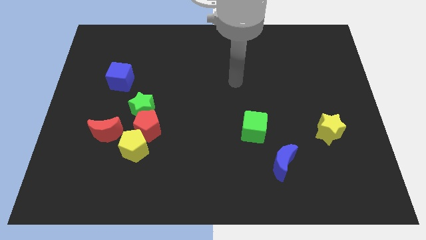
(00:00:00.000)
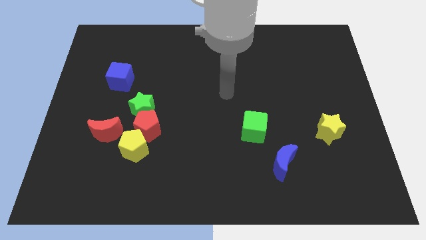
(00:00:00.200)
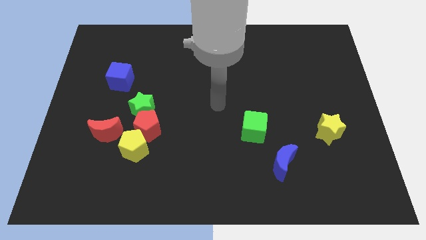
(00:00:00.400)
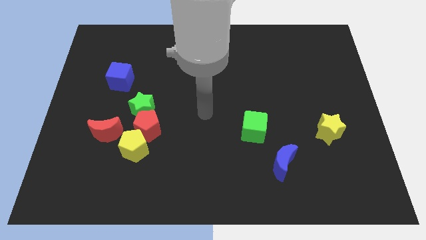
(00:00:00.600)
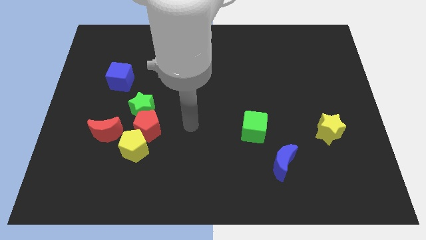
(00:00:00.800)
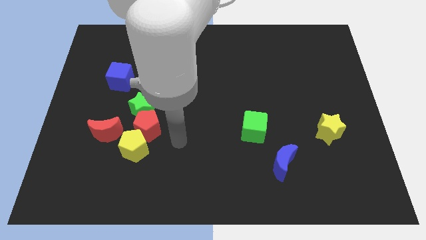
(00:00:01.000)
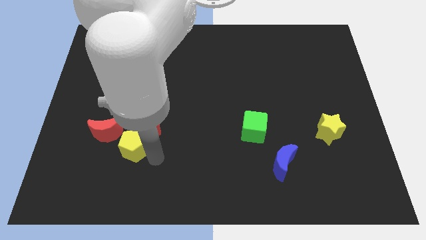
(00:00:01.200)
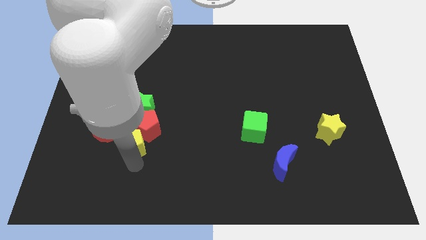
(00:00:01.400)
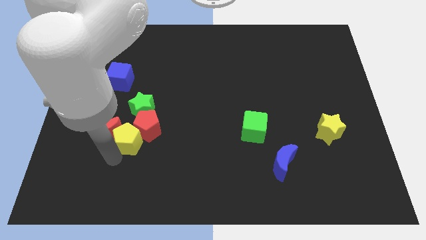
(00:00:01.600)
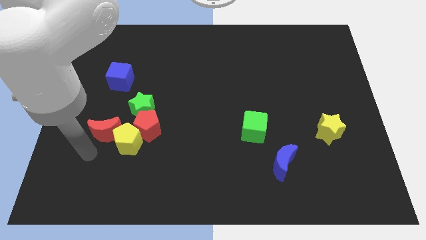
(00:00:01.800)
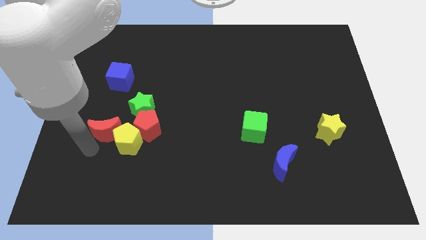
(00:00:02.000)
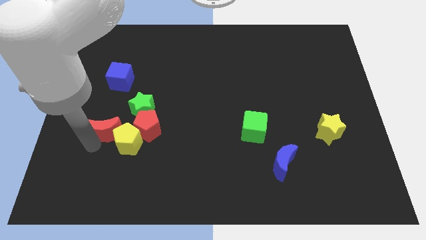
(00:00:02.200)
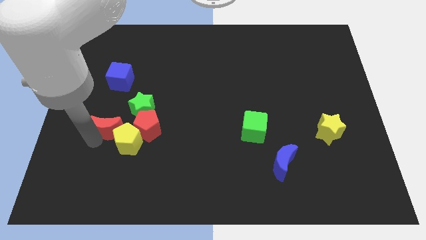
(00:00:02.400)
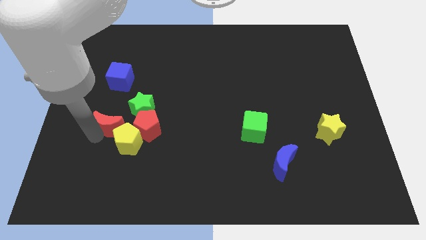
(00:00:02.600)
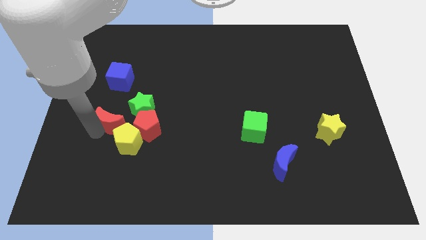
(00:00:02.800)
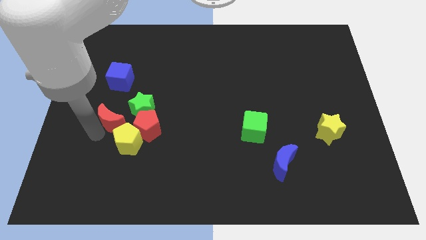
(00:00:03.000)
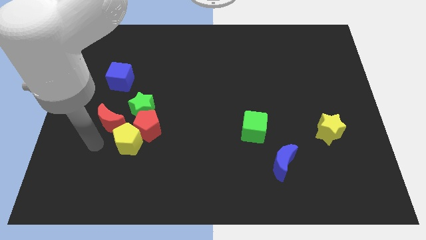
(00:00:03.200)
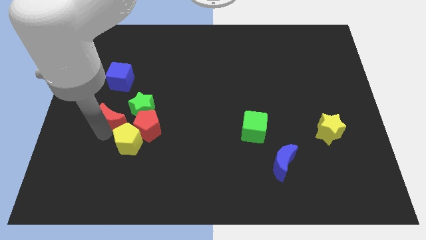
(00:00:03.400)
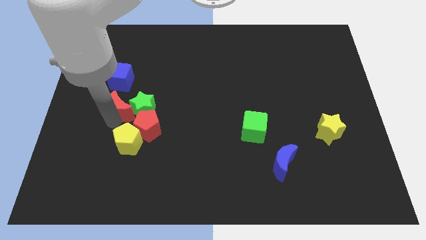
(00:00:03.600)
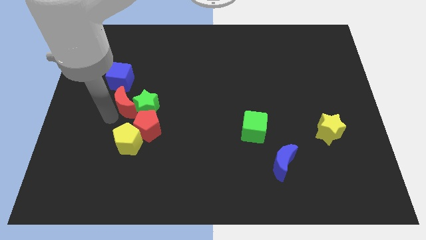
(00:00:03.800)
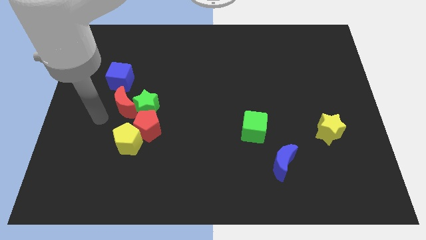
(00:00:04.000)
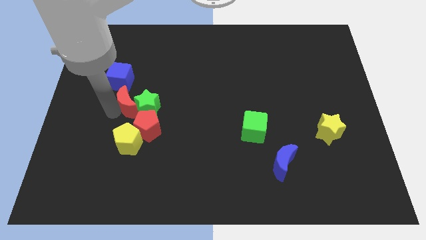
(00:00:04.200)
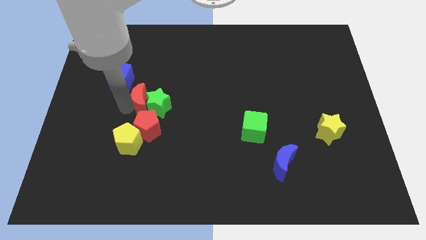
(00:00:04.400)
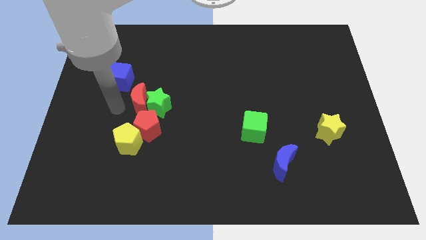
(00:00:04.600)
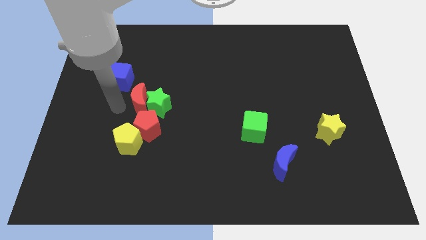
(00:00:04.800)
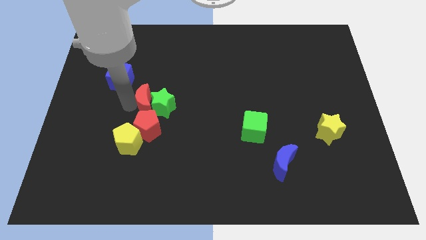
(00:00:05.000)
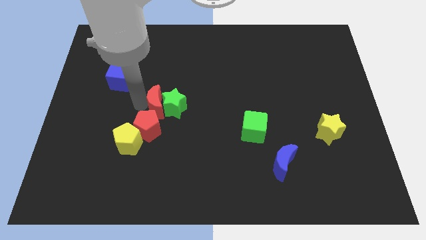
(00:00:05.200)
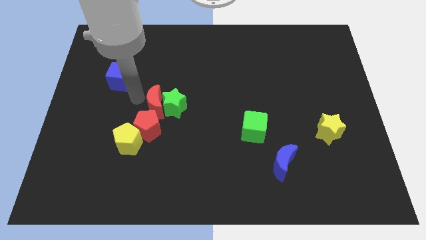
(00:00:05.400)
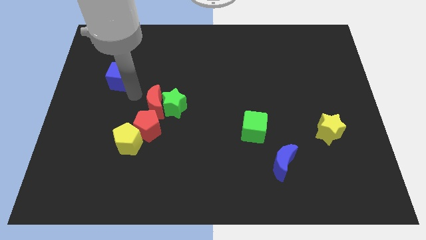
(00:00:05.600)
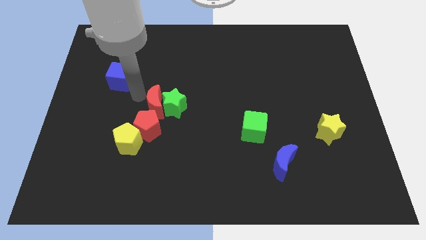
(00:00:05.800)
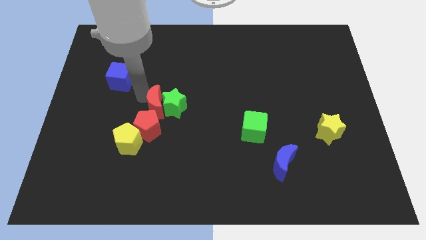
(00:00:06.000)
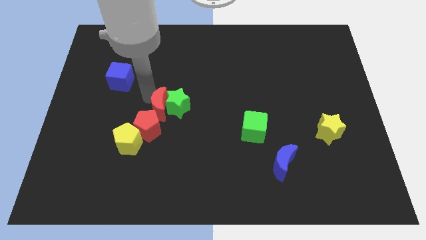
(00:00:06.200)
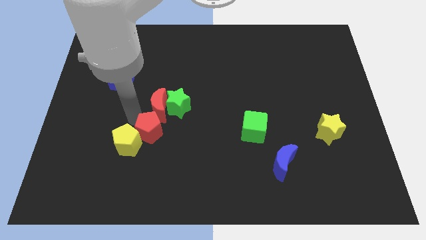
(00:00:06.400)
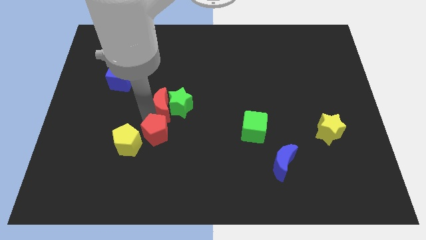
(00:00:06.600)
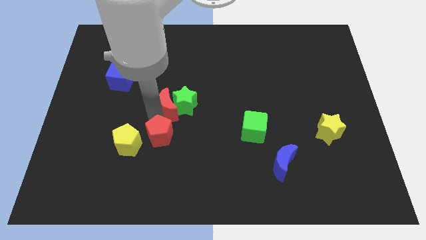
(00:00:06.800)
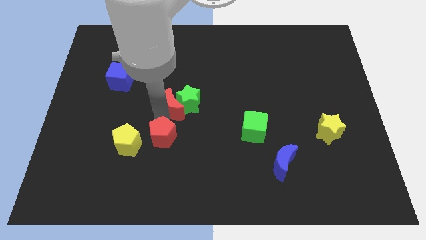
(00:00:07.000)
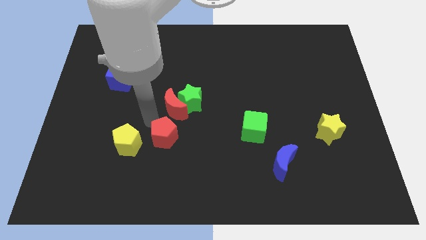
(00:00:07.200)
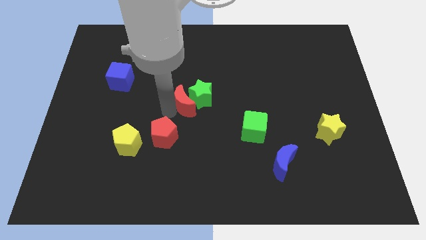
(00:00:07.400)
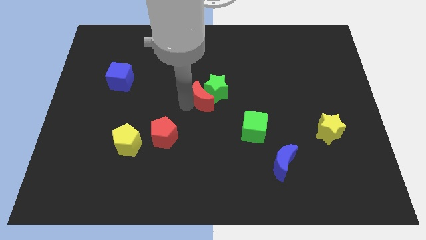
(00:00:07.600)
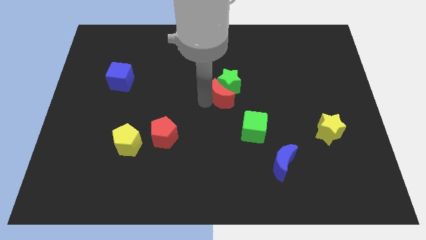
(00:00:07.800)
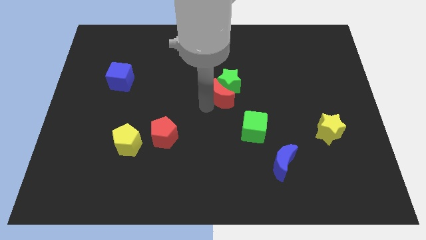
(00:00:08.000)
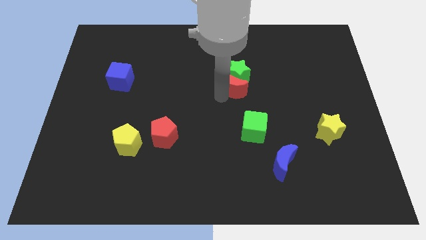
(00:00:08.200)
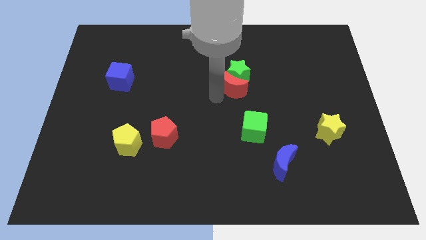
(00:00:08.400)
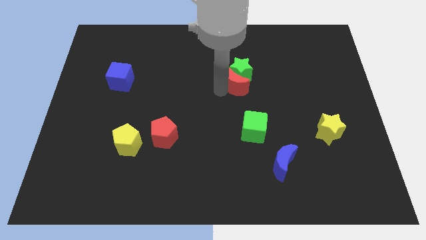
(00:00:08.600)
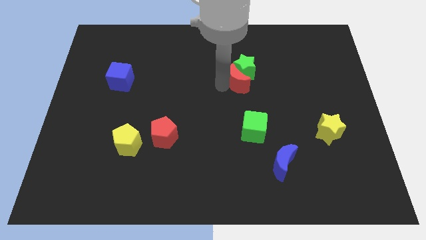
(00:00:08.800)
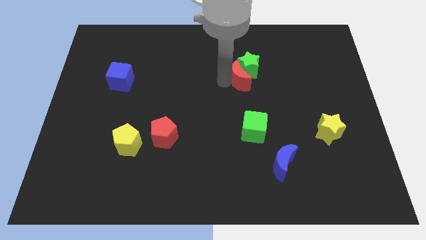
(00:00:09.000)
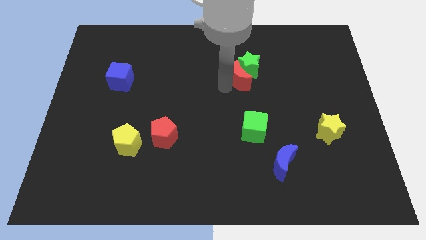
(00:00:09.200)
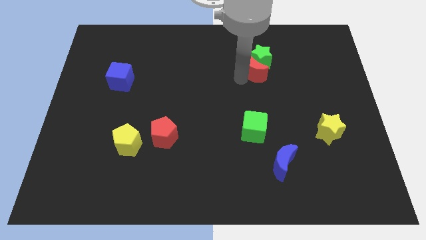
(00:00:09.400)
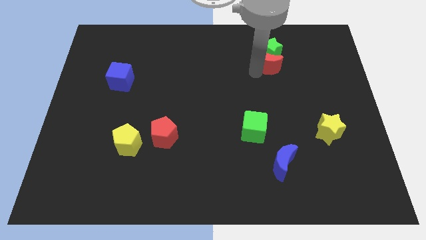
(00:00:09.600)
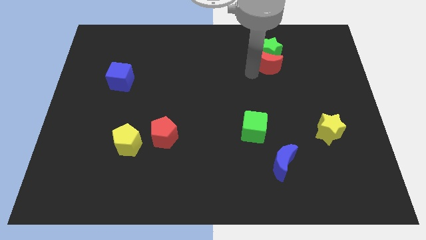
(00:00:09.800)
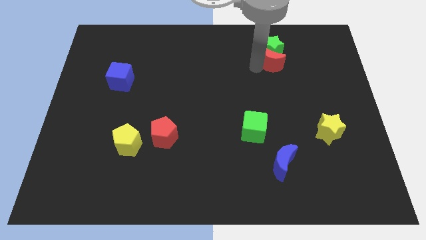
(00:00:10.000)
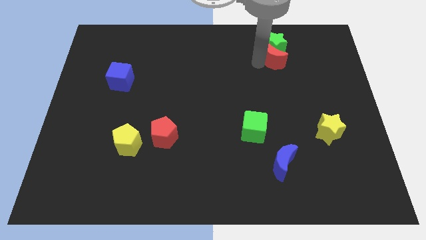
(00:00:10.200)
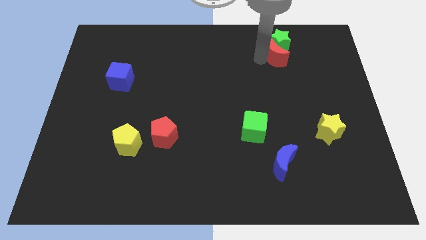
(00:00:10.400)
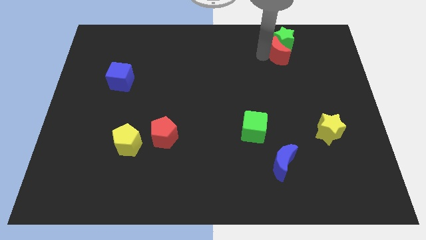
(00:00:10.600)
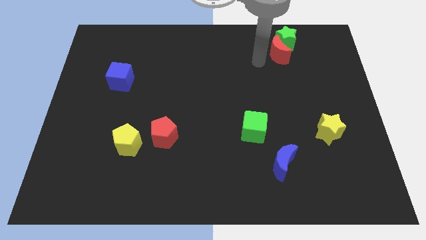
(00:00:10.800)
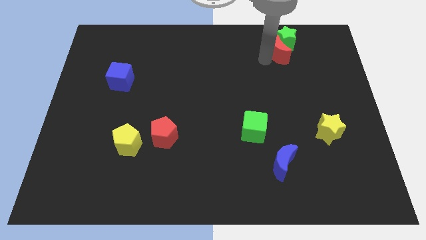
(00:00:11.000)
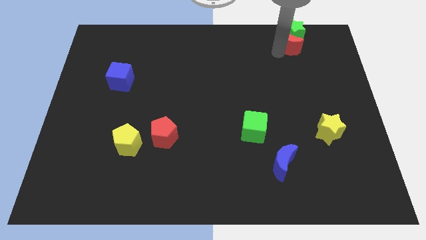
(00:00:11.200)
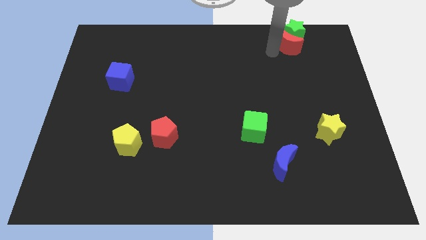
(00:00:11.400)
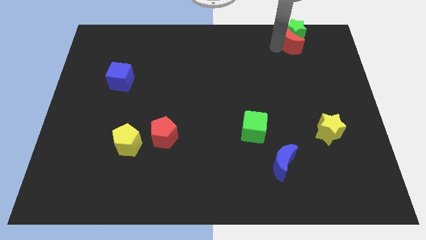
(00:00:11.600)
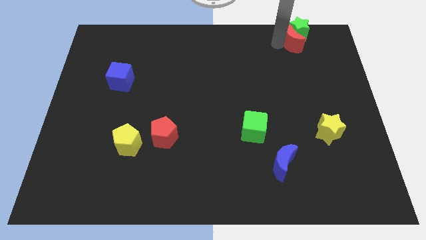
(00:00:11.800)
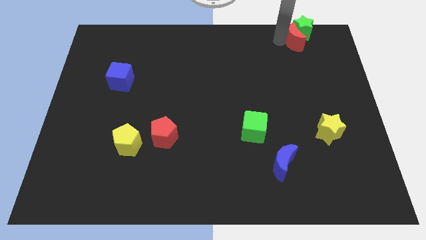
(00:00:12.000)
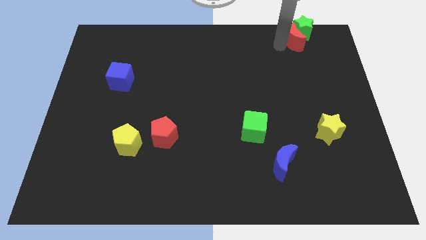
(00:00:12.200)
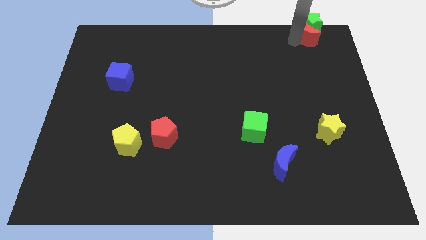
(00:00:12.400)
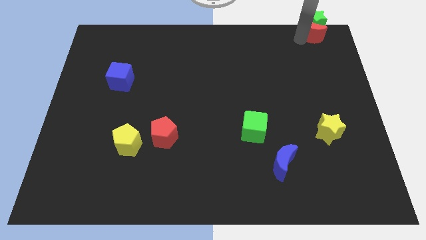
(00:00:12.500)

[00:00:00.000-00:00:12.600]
move the red moon to the top right of the board

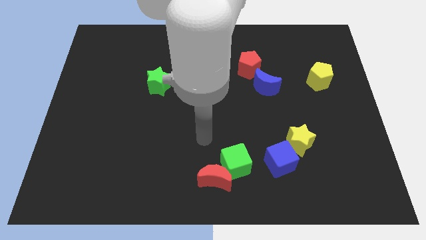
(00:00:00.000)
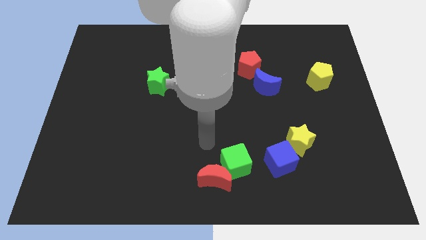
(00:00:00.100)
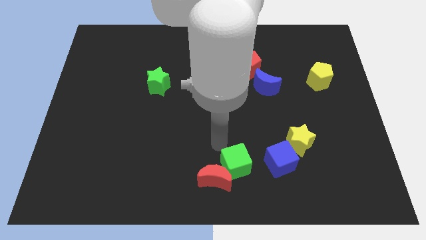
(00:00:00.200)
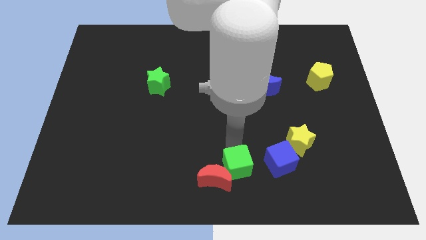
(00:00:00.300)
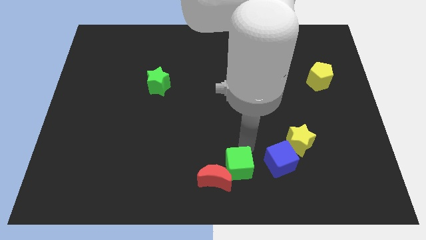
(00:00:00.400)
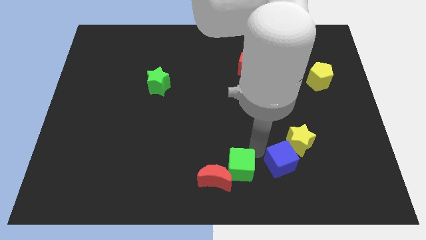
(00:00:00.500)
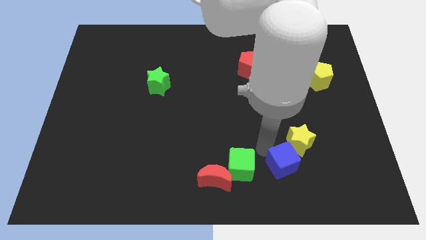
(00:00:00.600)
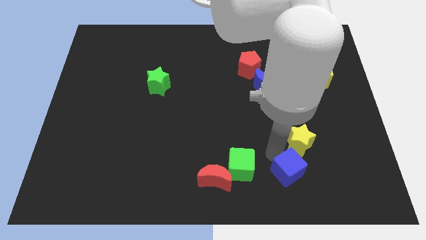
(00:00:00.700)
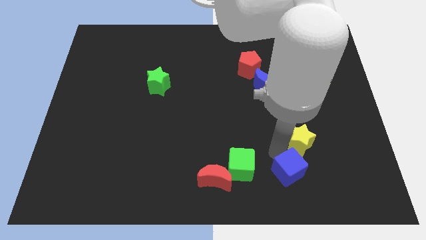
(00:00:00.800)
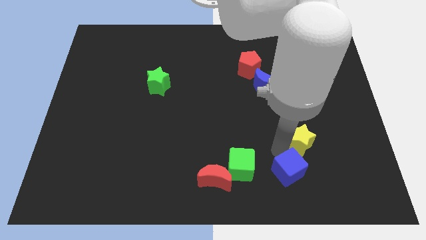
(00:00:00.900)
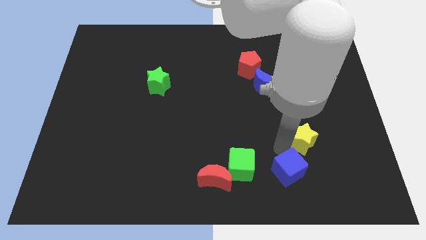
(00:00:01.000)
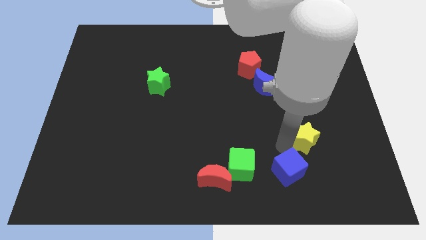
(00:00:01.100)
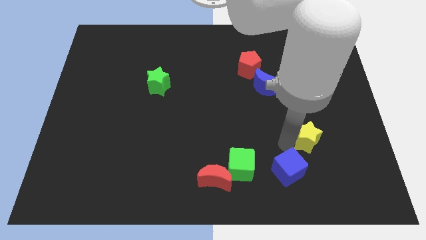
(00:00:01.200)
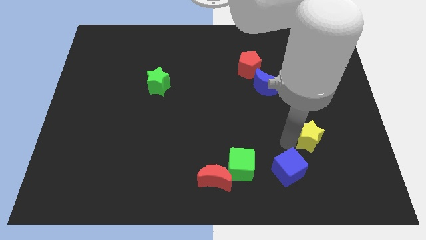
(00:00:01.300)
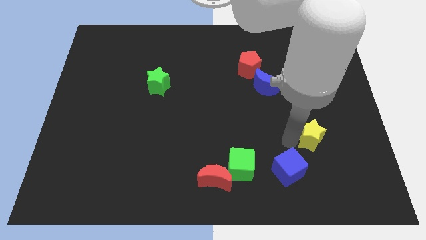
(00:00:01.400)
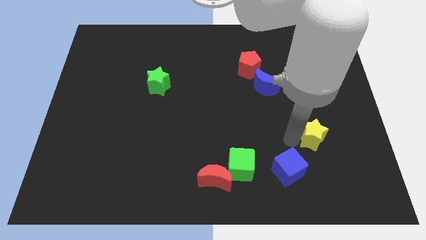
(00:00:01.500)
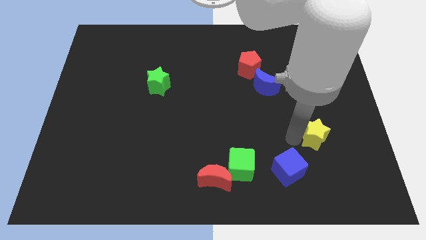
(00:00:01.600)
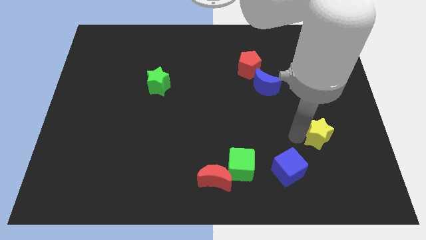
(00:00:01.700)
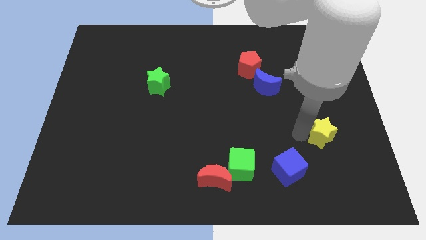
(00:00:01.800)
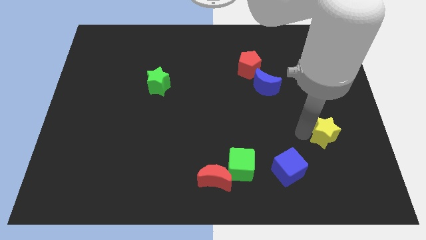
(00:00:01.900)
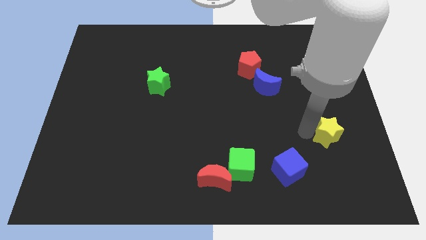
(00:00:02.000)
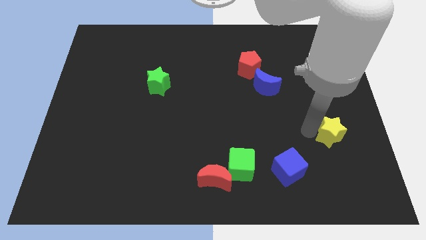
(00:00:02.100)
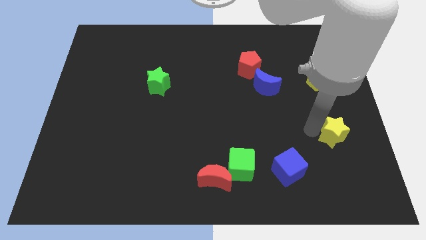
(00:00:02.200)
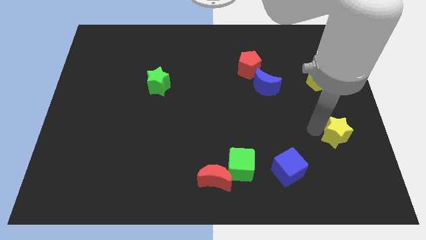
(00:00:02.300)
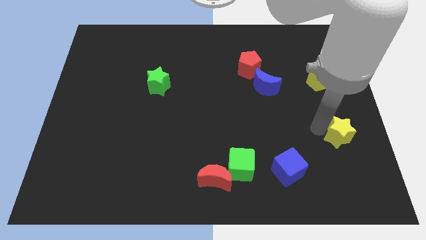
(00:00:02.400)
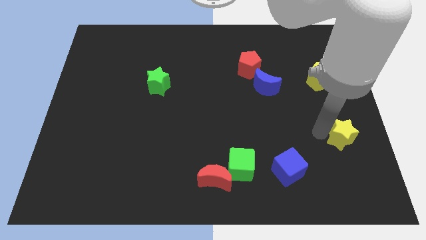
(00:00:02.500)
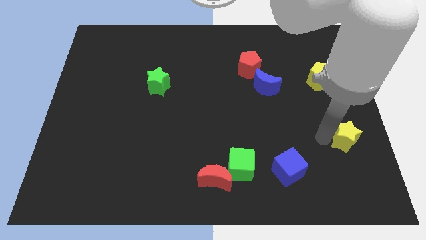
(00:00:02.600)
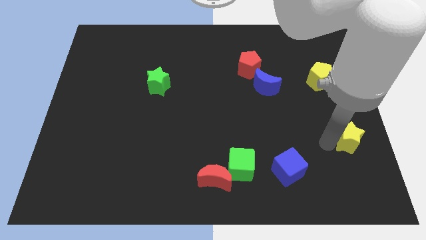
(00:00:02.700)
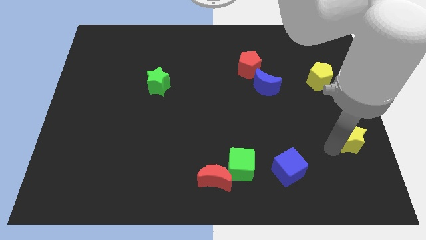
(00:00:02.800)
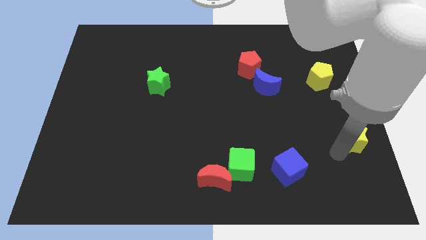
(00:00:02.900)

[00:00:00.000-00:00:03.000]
slide the yellow star to the center right
